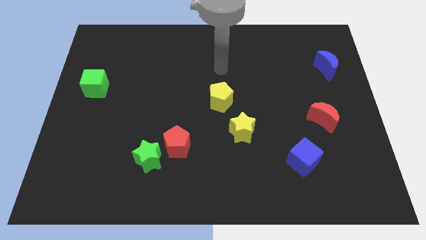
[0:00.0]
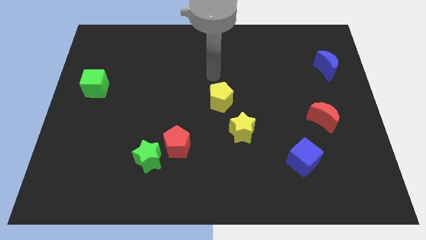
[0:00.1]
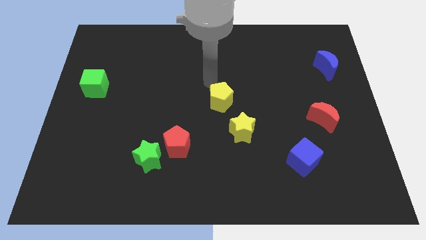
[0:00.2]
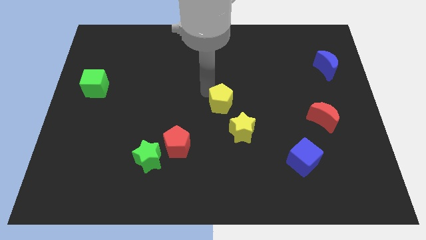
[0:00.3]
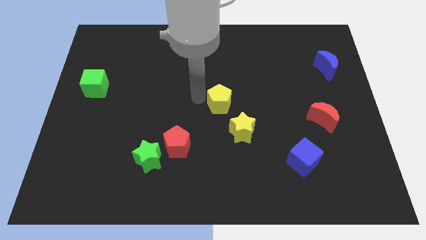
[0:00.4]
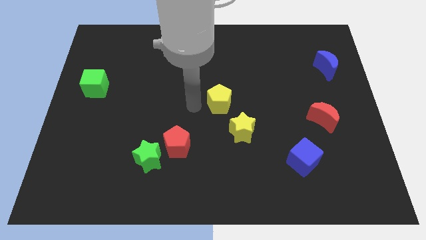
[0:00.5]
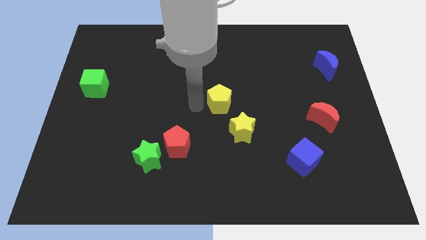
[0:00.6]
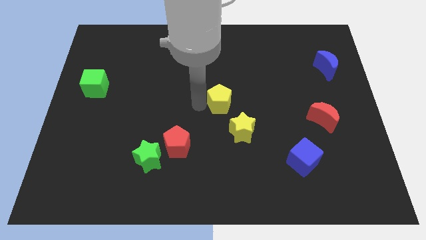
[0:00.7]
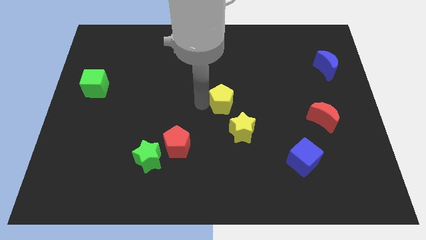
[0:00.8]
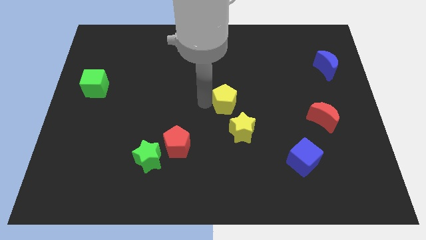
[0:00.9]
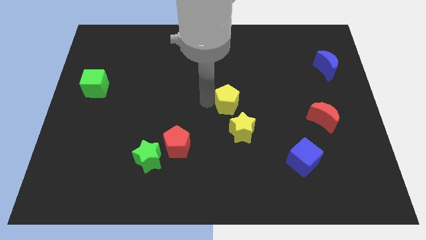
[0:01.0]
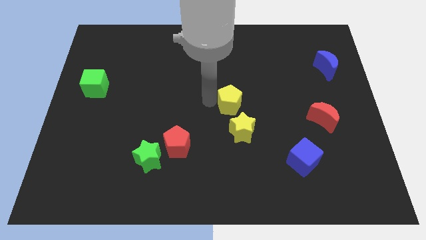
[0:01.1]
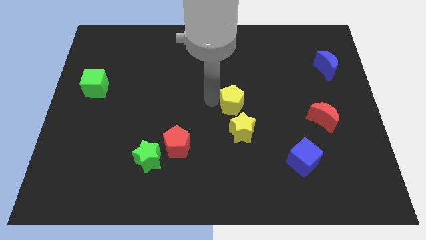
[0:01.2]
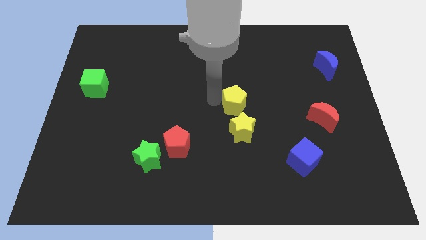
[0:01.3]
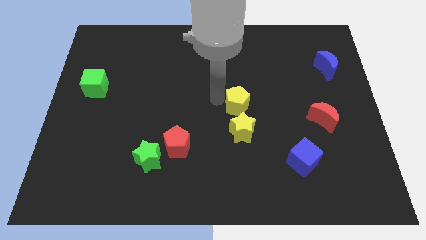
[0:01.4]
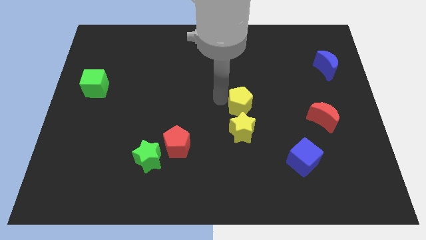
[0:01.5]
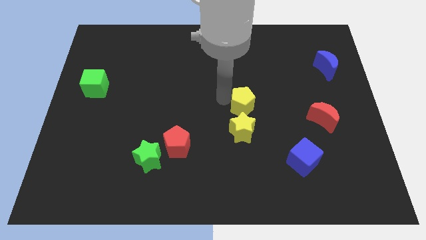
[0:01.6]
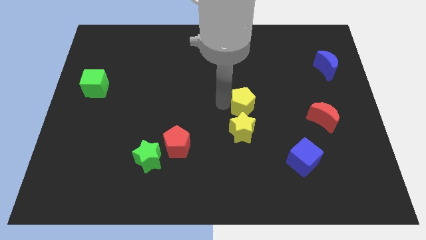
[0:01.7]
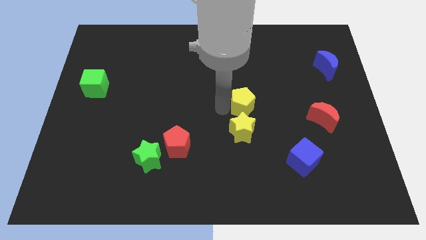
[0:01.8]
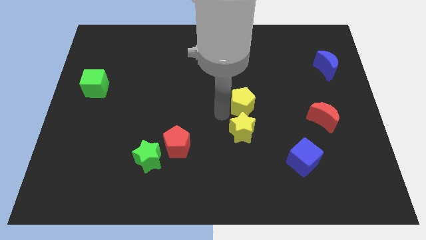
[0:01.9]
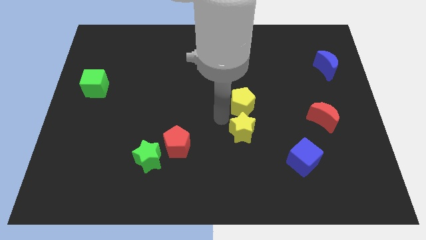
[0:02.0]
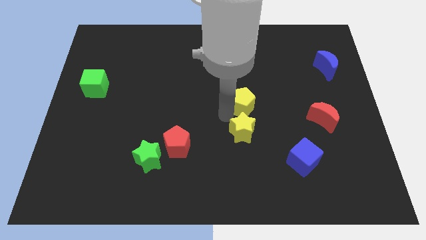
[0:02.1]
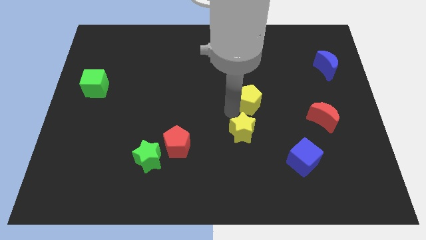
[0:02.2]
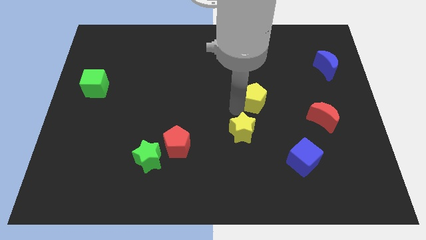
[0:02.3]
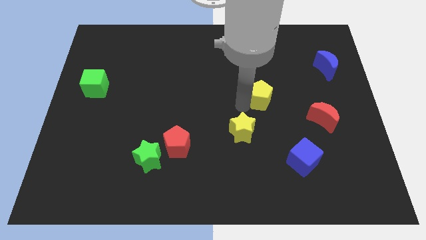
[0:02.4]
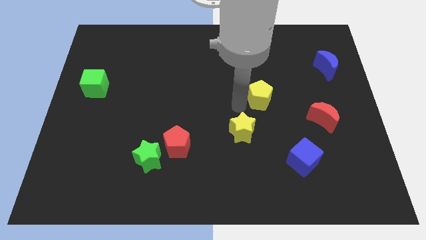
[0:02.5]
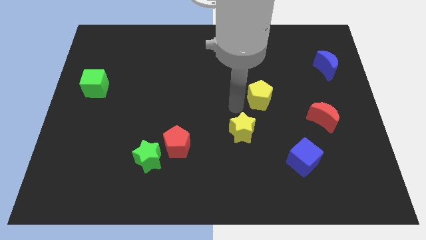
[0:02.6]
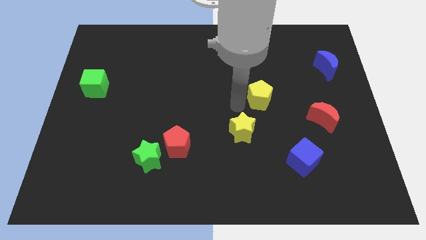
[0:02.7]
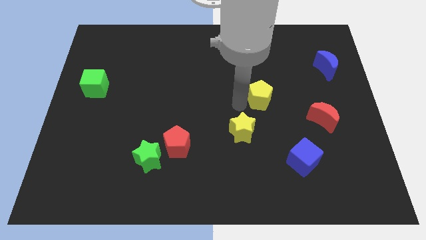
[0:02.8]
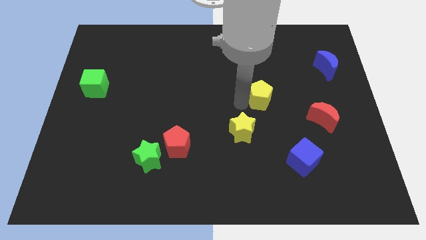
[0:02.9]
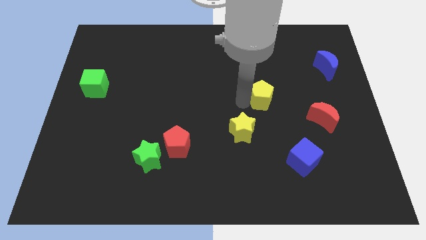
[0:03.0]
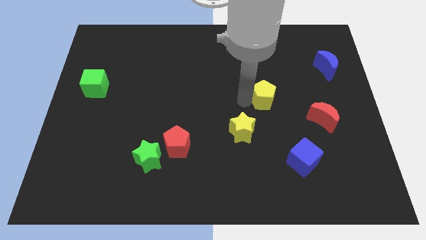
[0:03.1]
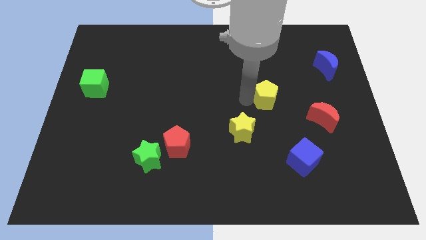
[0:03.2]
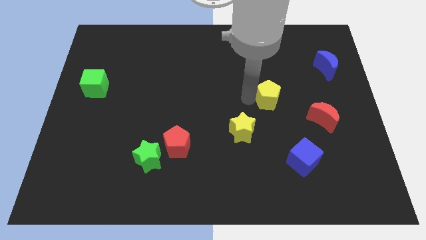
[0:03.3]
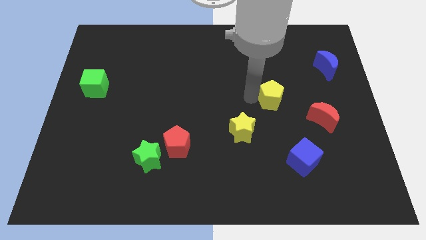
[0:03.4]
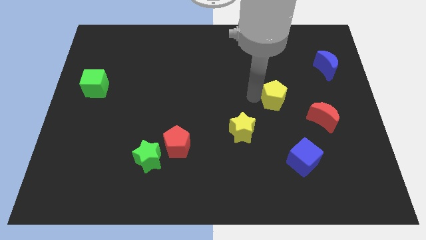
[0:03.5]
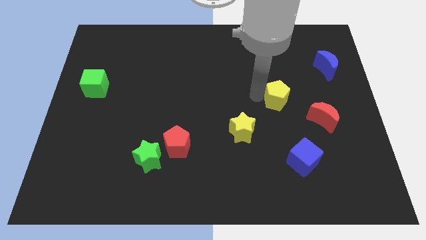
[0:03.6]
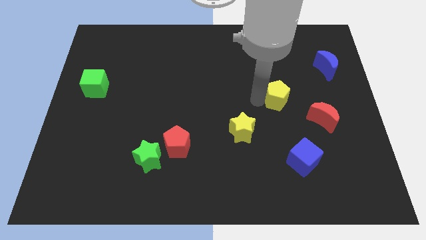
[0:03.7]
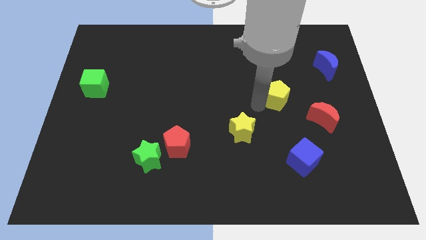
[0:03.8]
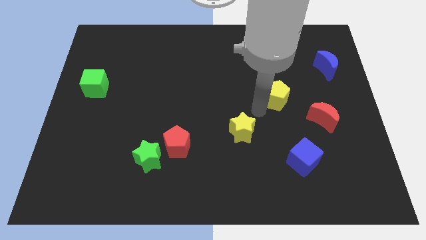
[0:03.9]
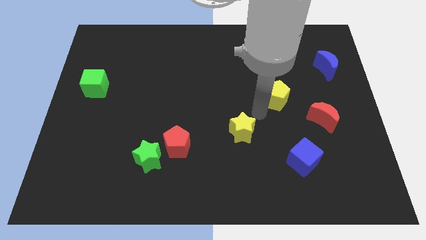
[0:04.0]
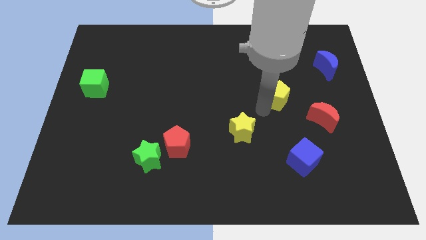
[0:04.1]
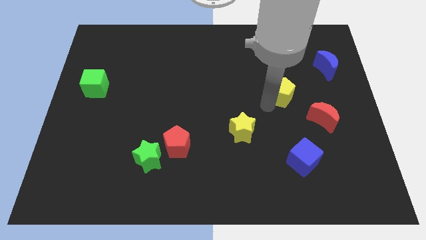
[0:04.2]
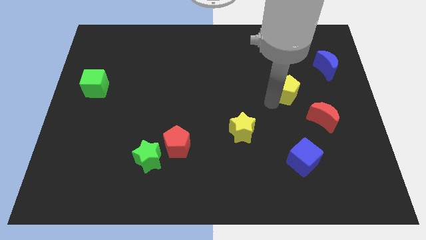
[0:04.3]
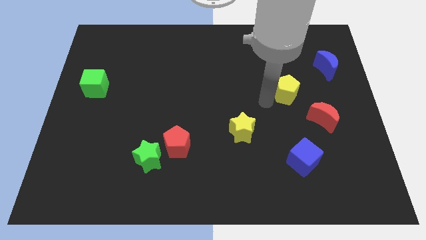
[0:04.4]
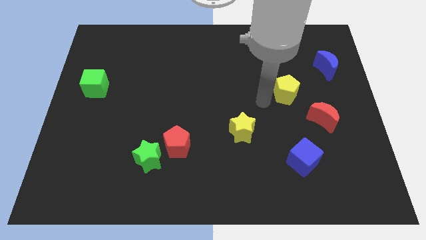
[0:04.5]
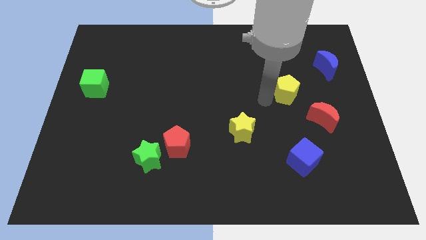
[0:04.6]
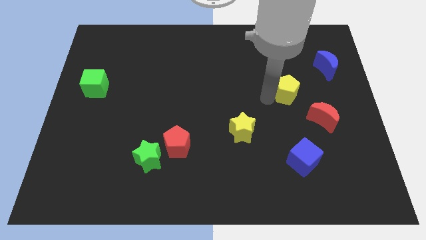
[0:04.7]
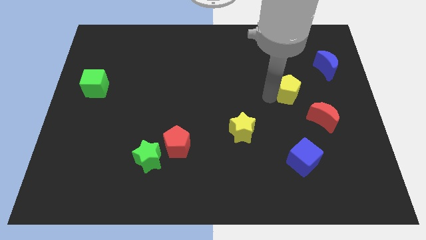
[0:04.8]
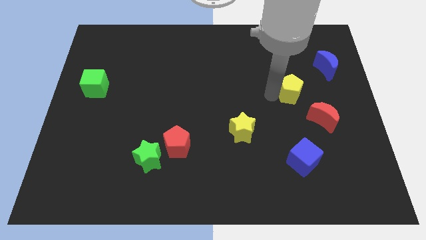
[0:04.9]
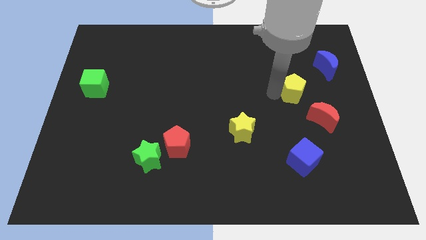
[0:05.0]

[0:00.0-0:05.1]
move the yellow pentagon diagonally down and to the left of the blue moon

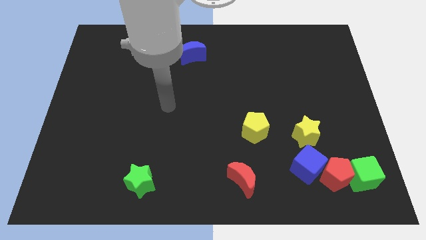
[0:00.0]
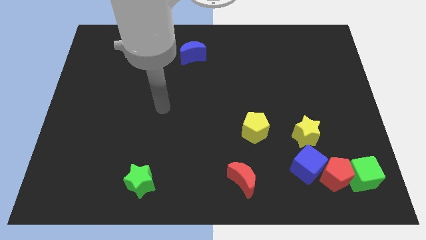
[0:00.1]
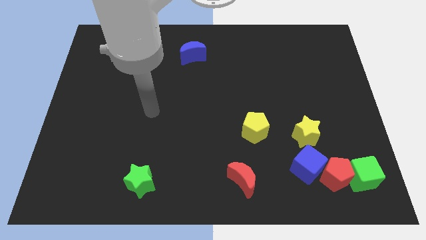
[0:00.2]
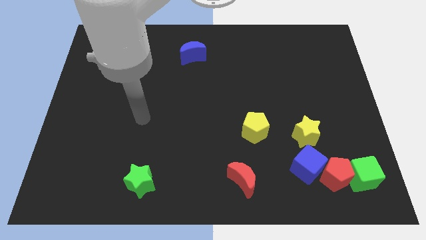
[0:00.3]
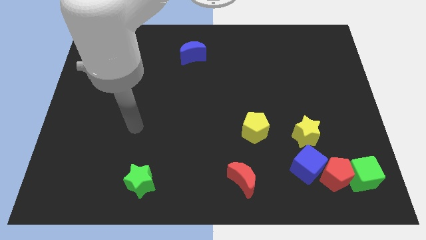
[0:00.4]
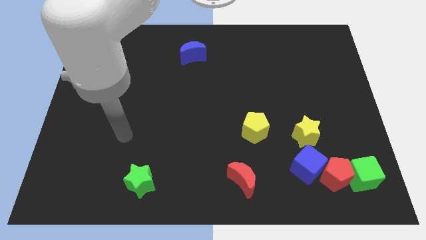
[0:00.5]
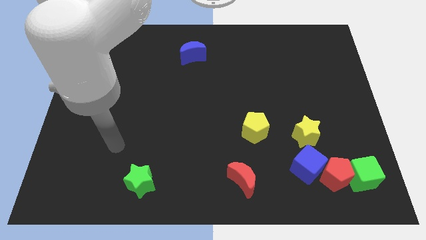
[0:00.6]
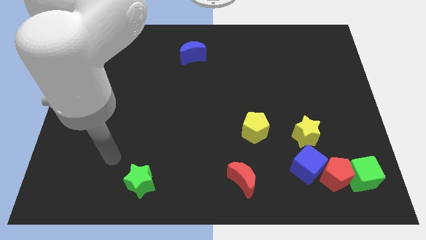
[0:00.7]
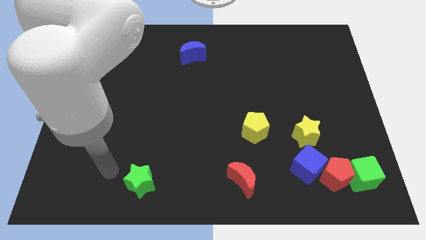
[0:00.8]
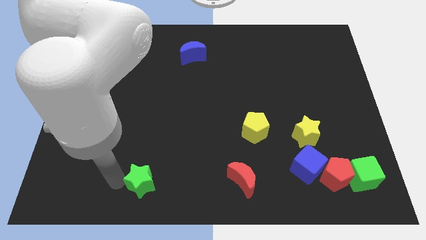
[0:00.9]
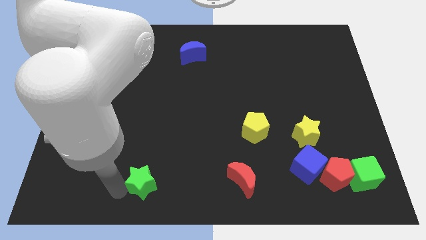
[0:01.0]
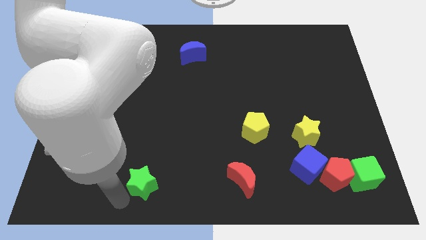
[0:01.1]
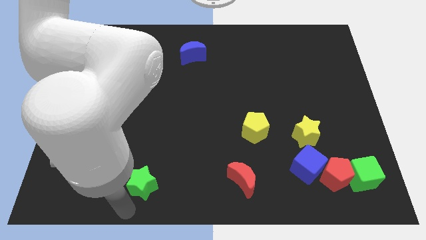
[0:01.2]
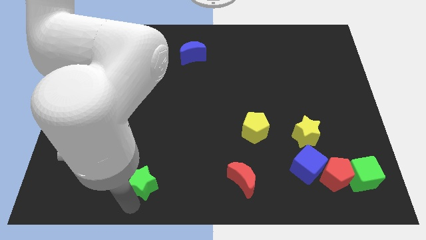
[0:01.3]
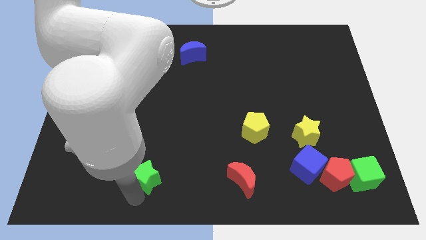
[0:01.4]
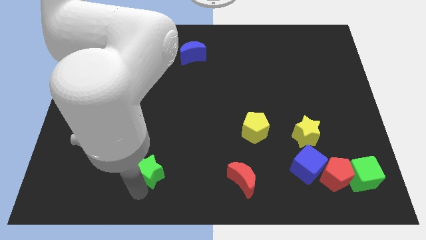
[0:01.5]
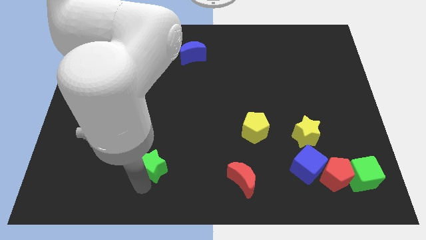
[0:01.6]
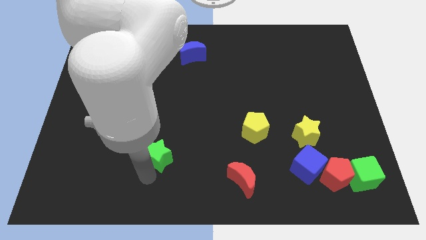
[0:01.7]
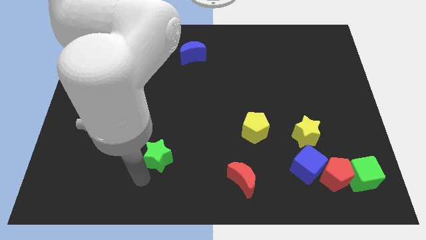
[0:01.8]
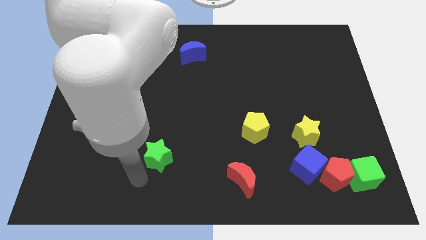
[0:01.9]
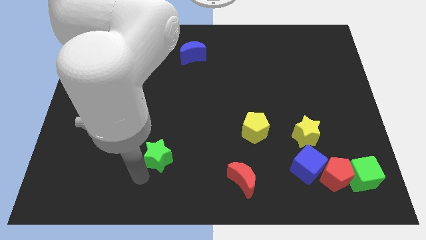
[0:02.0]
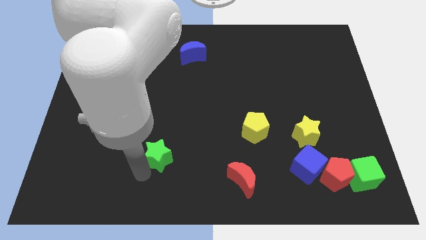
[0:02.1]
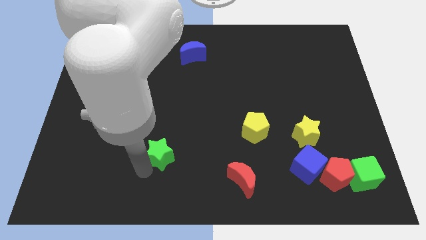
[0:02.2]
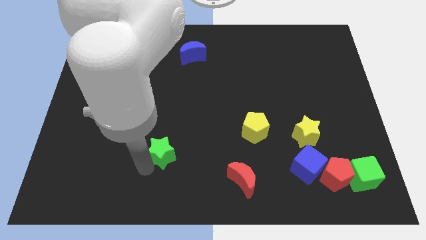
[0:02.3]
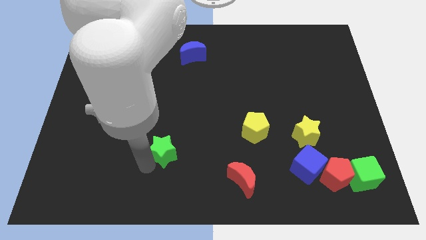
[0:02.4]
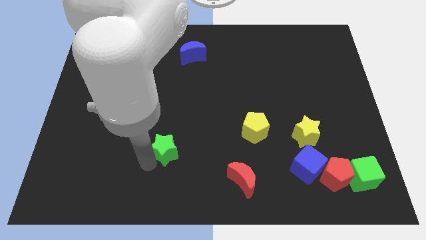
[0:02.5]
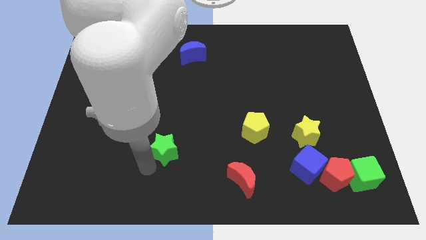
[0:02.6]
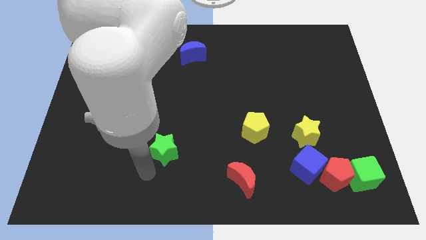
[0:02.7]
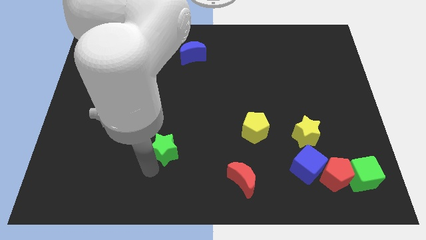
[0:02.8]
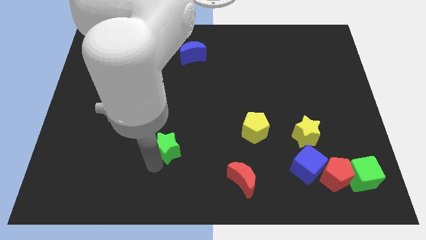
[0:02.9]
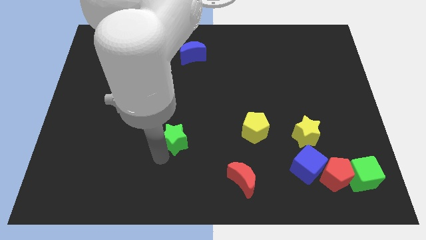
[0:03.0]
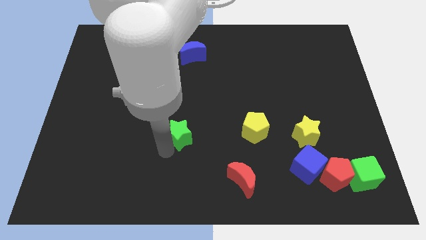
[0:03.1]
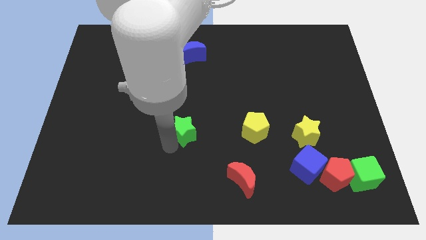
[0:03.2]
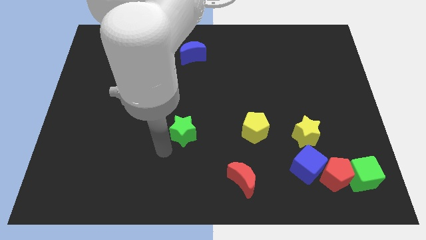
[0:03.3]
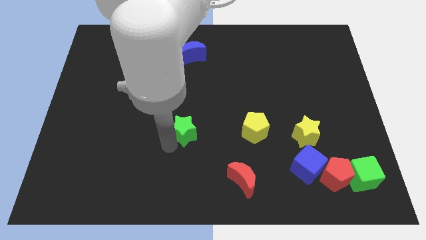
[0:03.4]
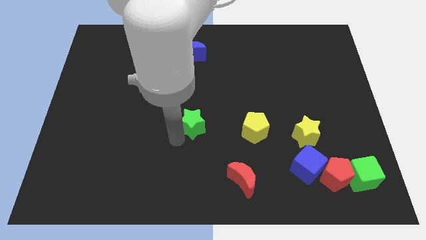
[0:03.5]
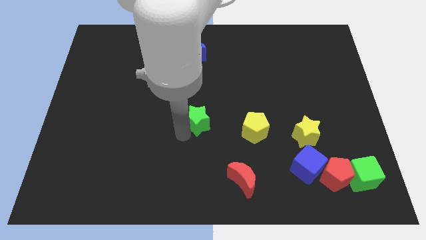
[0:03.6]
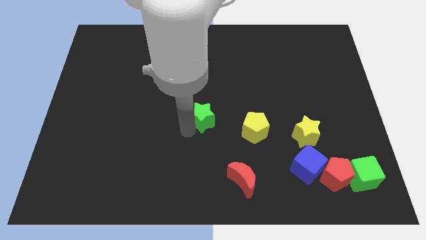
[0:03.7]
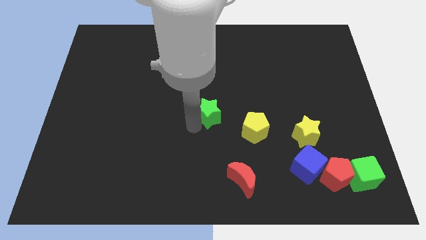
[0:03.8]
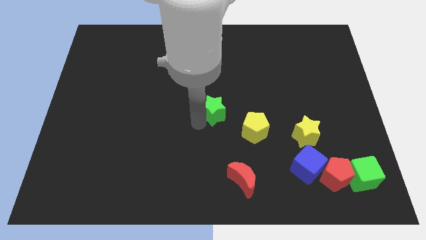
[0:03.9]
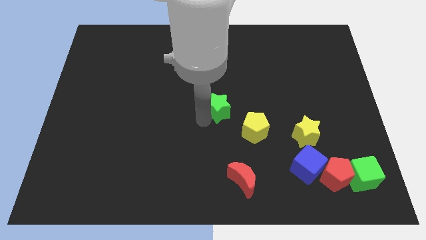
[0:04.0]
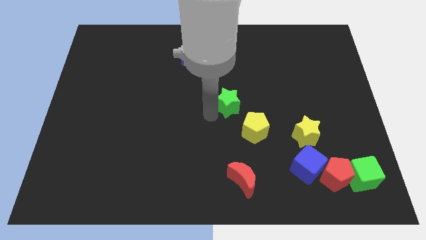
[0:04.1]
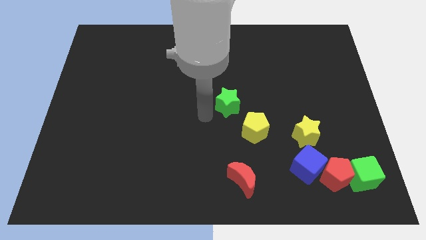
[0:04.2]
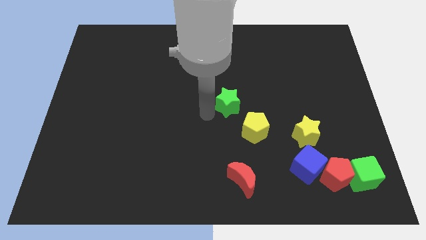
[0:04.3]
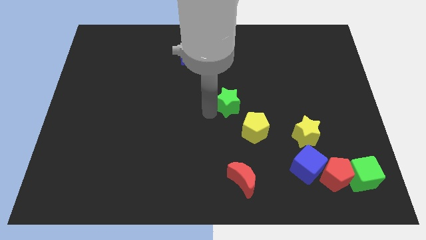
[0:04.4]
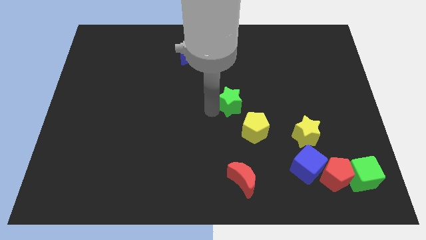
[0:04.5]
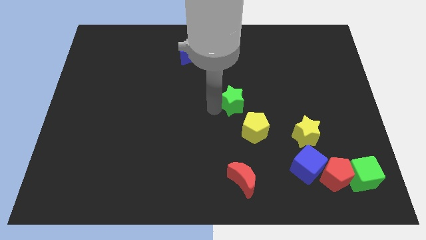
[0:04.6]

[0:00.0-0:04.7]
put the green star above the yellow pentagon
